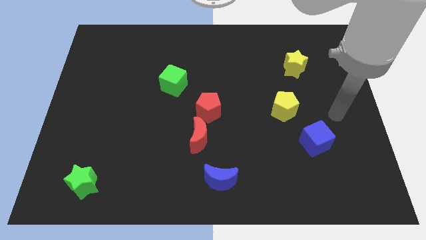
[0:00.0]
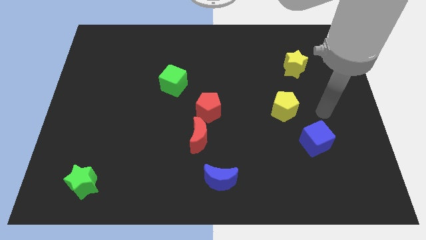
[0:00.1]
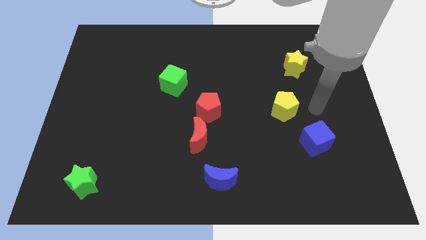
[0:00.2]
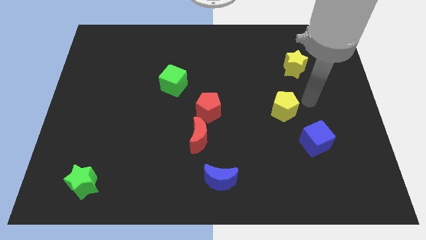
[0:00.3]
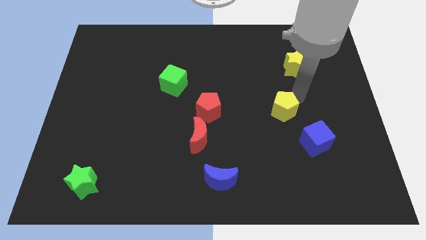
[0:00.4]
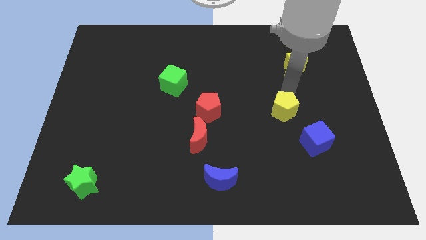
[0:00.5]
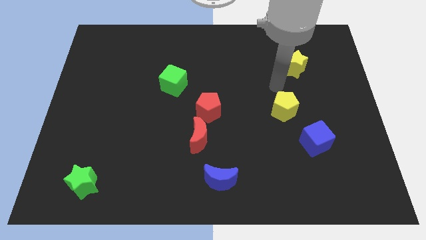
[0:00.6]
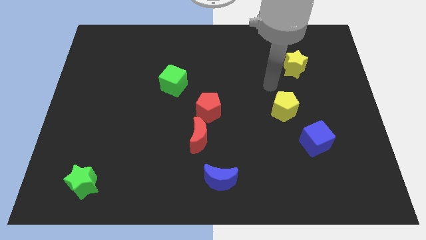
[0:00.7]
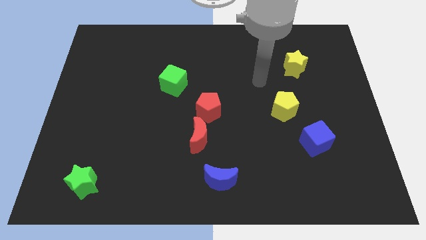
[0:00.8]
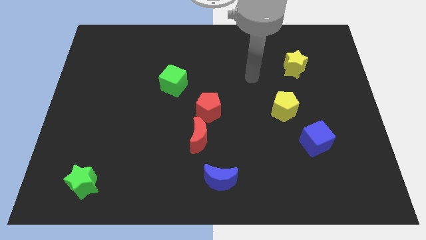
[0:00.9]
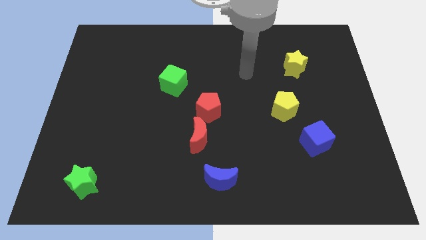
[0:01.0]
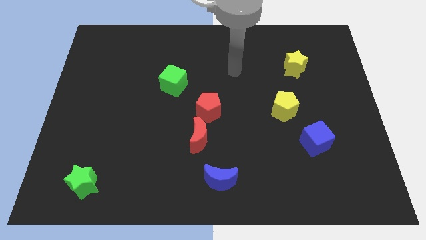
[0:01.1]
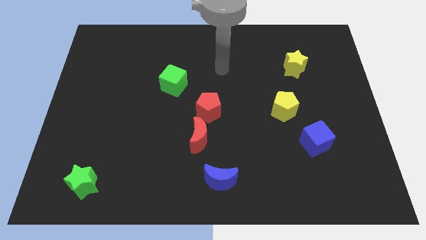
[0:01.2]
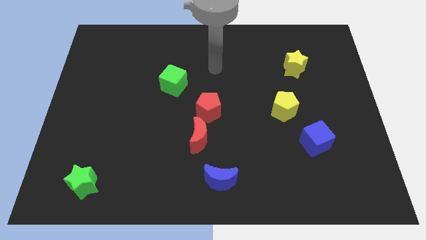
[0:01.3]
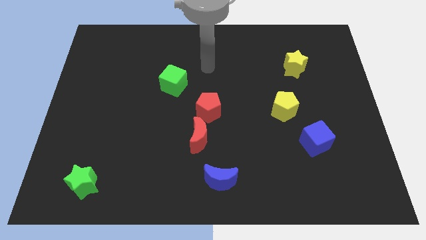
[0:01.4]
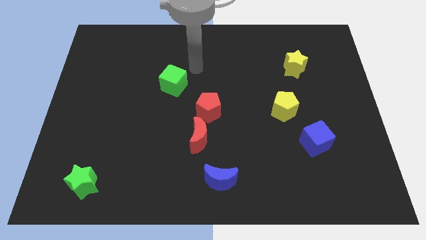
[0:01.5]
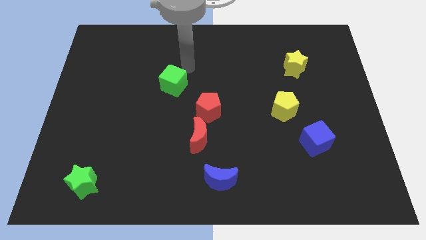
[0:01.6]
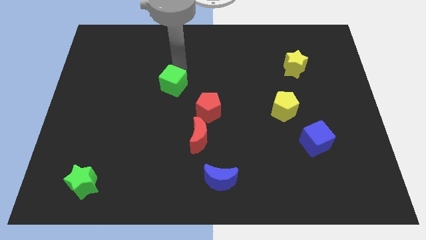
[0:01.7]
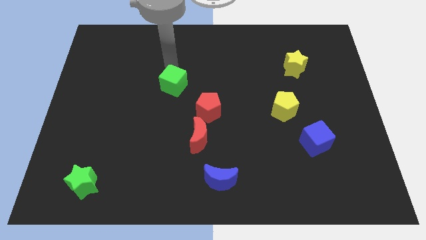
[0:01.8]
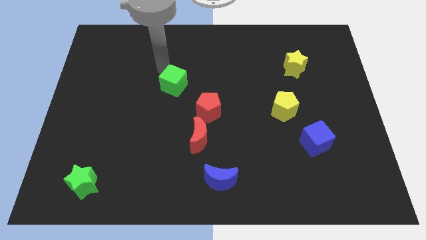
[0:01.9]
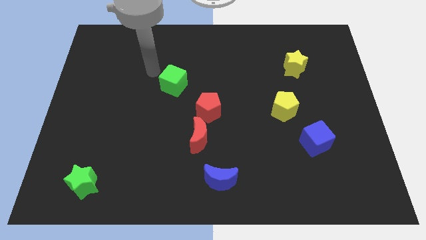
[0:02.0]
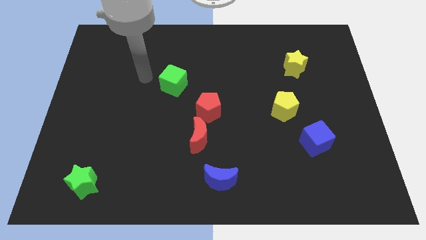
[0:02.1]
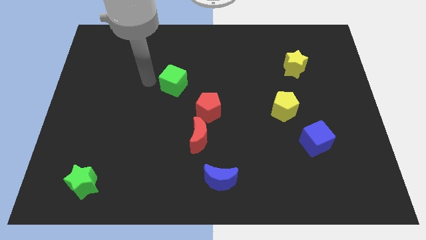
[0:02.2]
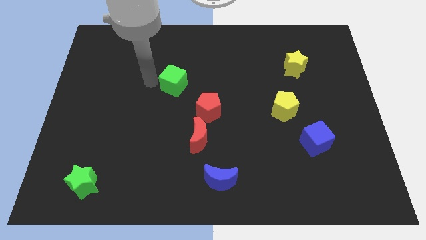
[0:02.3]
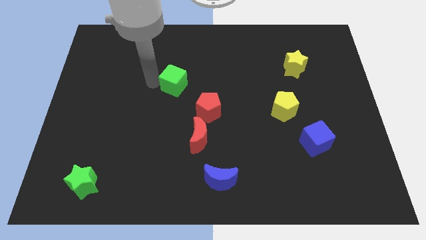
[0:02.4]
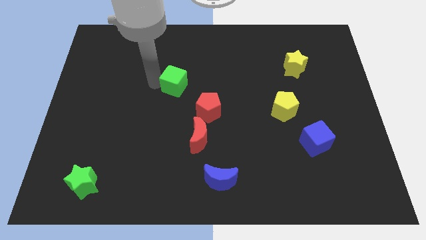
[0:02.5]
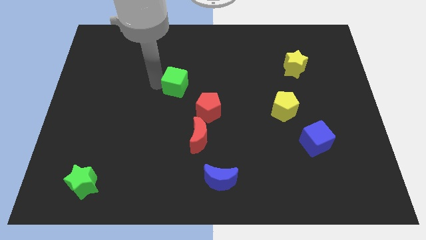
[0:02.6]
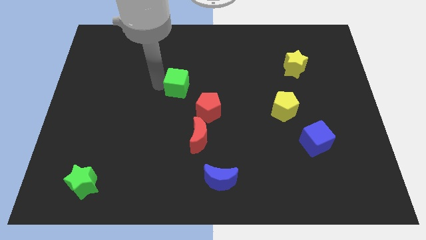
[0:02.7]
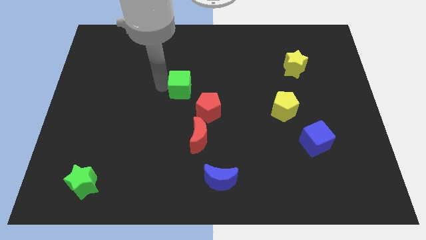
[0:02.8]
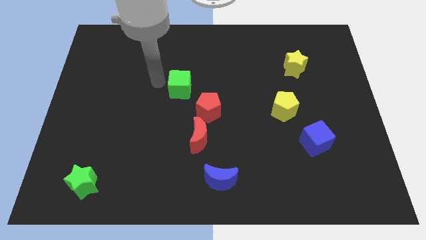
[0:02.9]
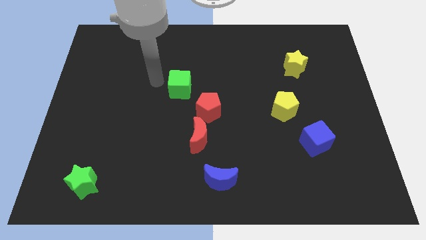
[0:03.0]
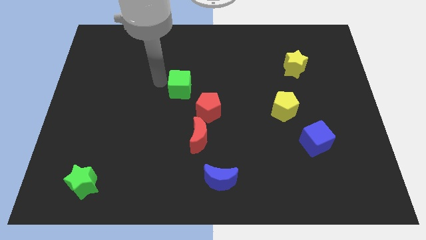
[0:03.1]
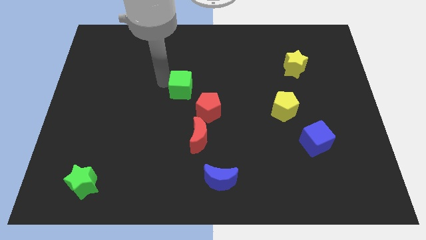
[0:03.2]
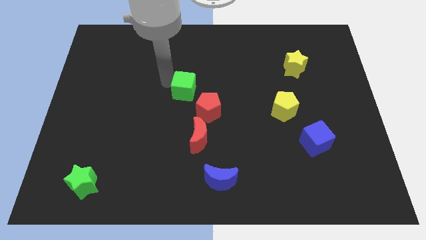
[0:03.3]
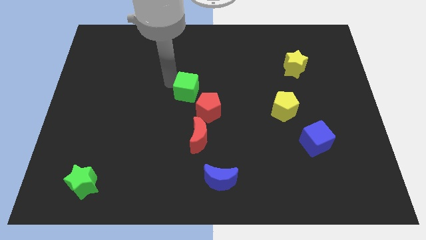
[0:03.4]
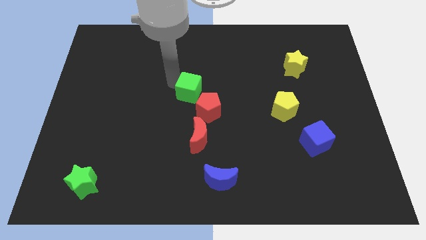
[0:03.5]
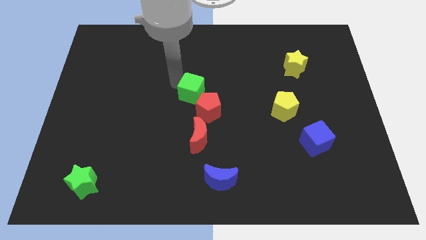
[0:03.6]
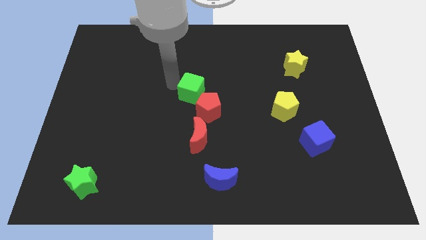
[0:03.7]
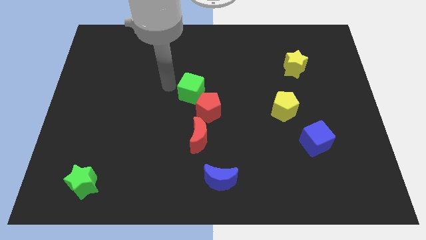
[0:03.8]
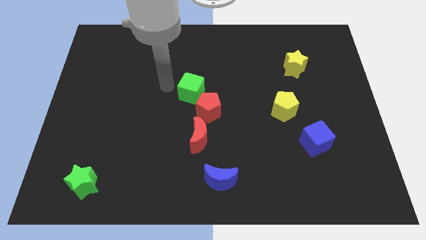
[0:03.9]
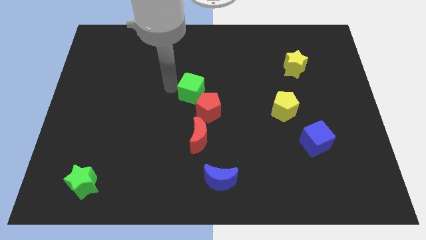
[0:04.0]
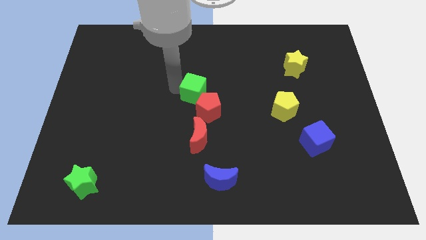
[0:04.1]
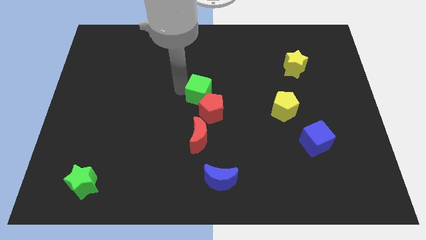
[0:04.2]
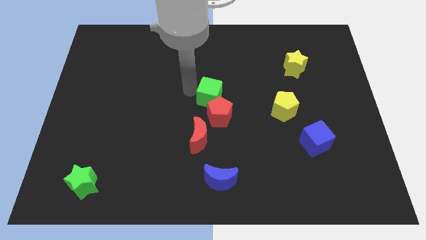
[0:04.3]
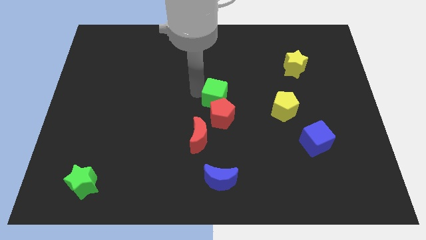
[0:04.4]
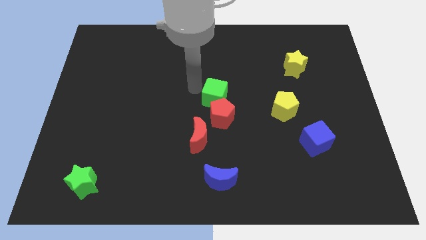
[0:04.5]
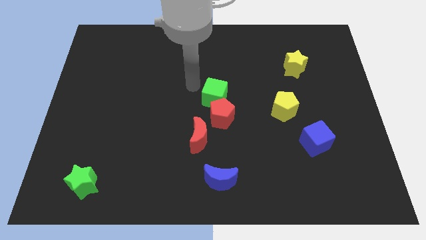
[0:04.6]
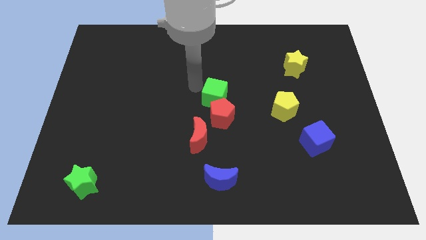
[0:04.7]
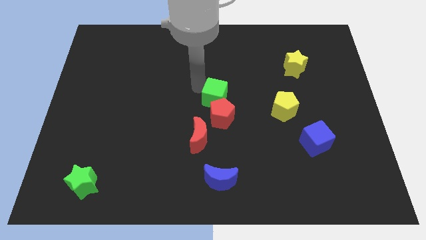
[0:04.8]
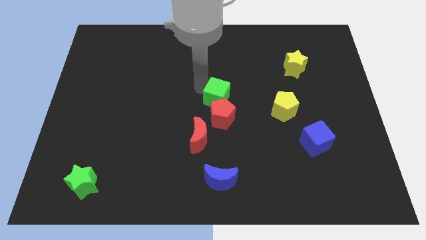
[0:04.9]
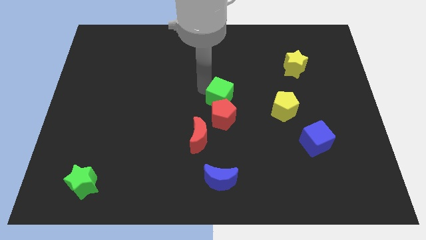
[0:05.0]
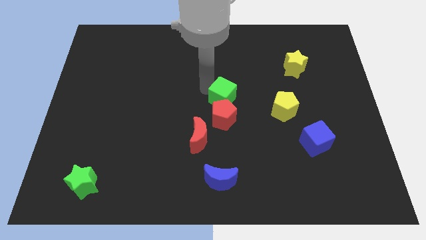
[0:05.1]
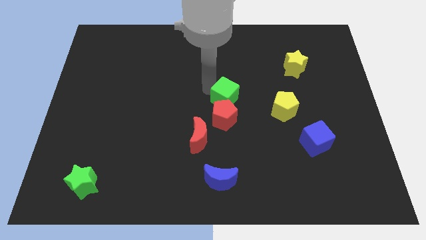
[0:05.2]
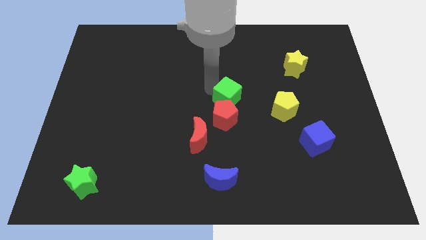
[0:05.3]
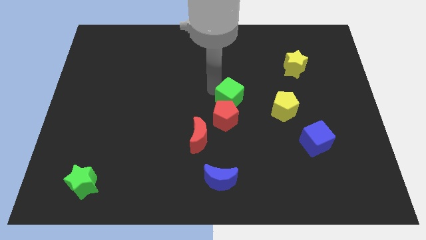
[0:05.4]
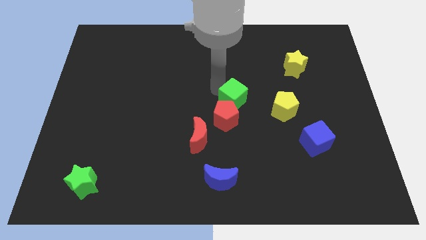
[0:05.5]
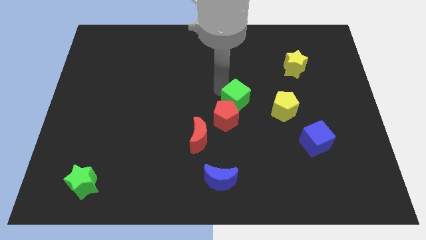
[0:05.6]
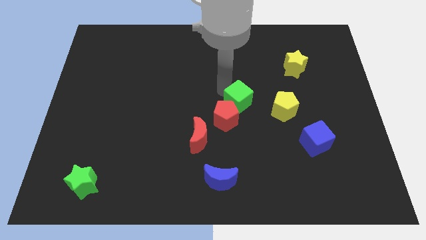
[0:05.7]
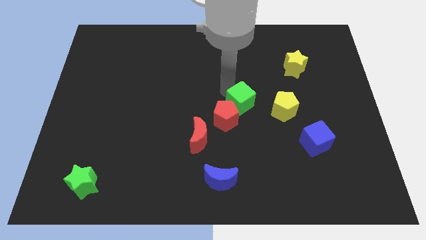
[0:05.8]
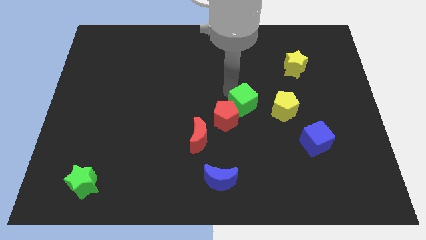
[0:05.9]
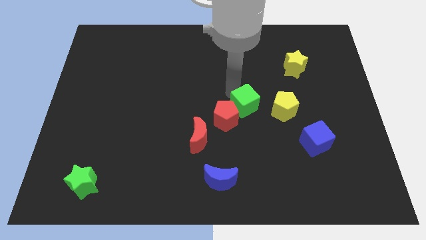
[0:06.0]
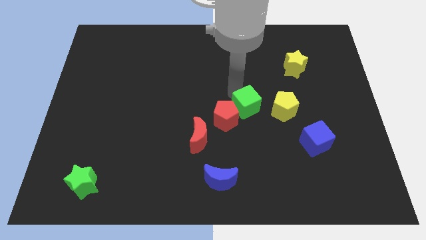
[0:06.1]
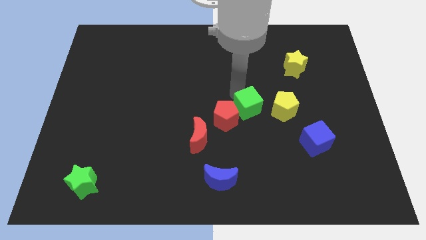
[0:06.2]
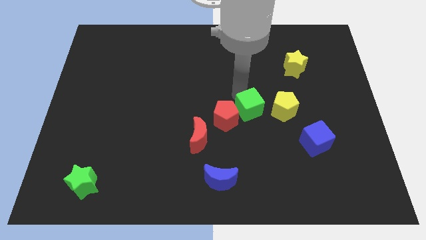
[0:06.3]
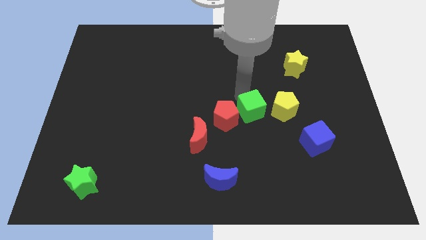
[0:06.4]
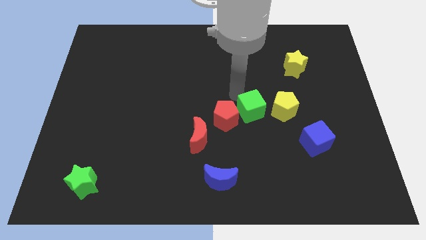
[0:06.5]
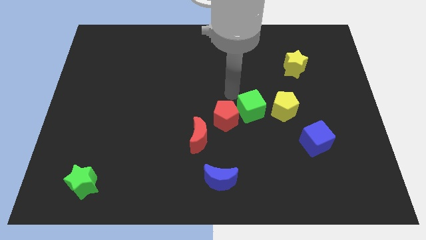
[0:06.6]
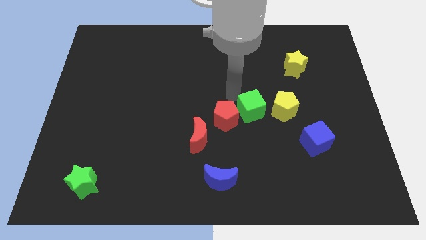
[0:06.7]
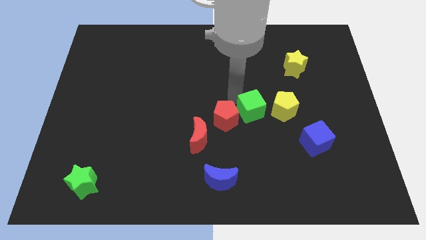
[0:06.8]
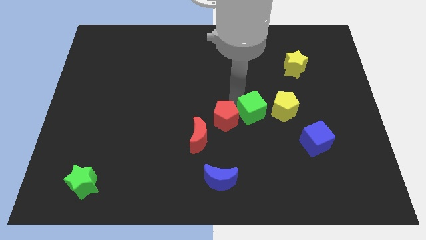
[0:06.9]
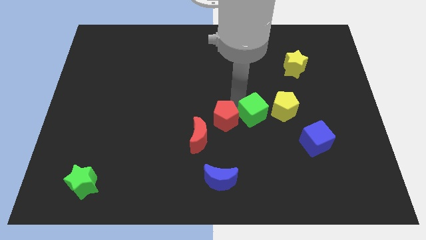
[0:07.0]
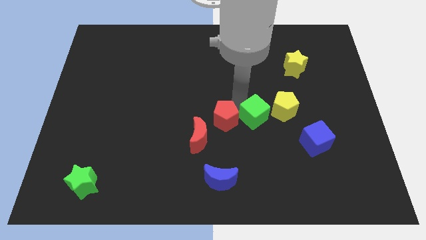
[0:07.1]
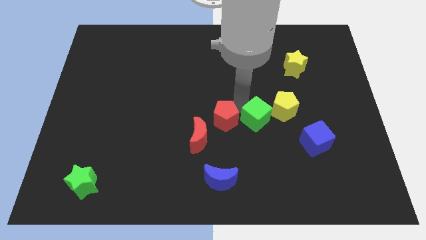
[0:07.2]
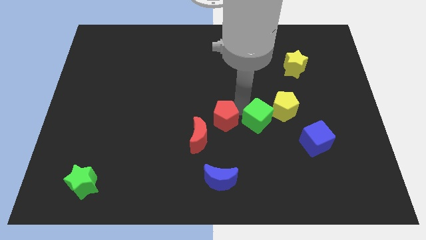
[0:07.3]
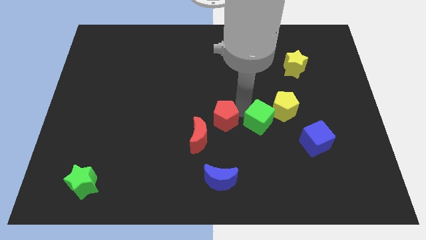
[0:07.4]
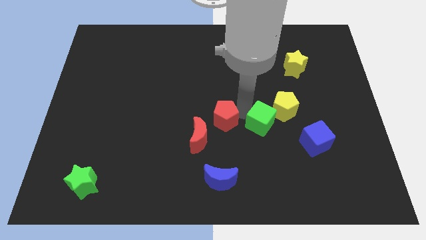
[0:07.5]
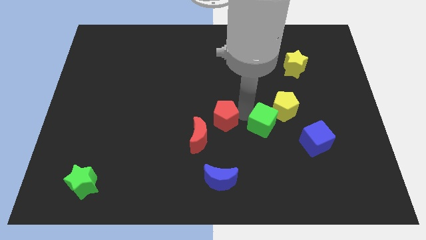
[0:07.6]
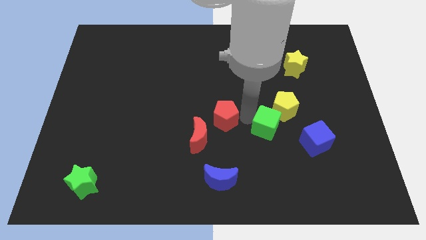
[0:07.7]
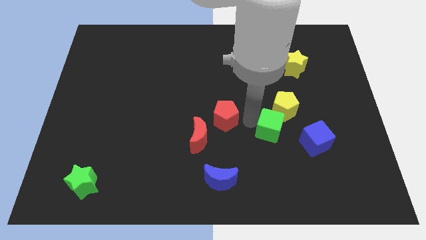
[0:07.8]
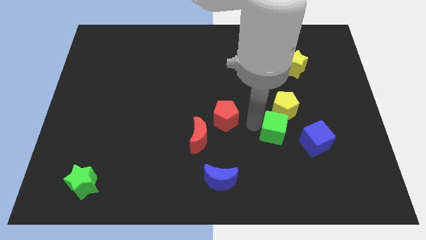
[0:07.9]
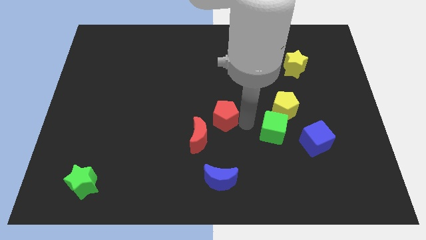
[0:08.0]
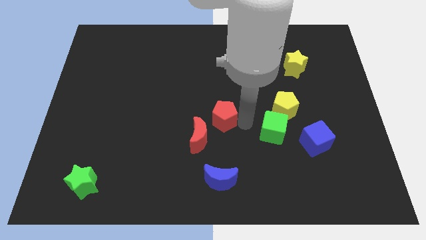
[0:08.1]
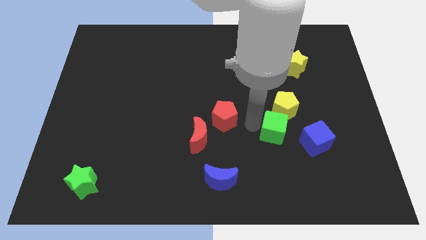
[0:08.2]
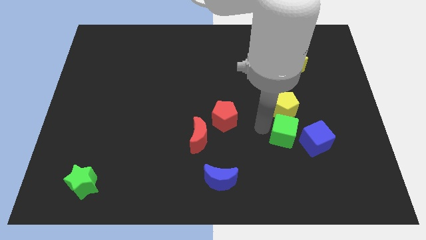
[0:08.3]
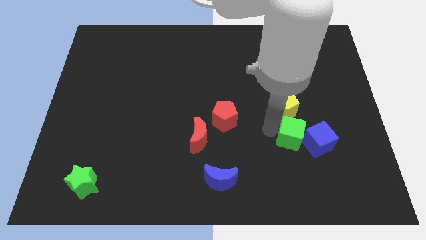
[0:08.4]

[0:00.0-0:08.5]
slide the green cube towards the blue cube
